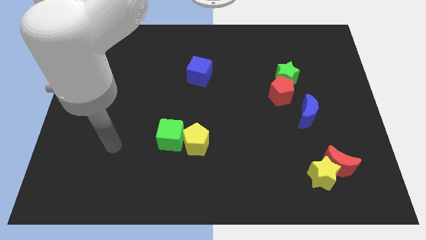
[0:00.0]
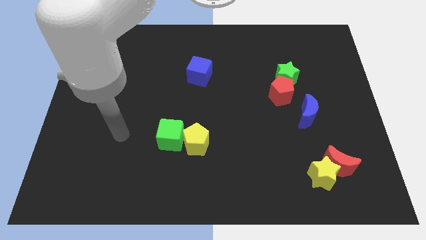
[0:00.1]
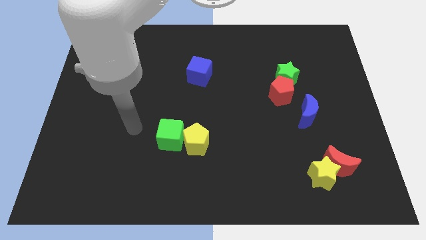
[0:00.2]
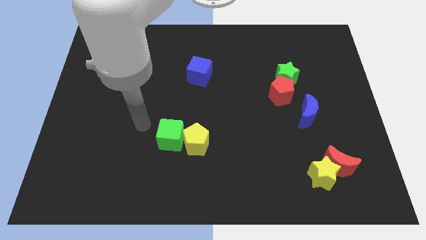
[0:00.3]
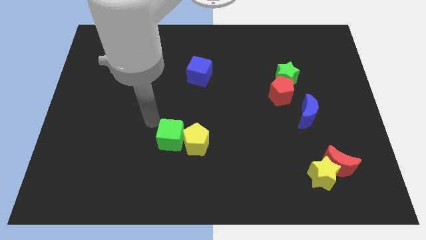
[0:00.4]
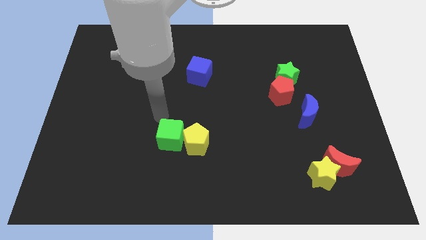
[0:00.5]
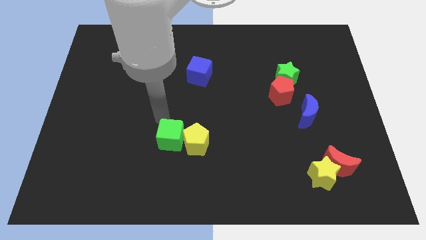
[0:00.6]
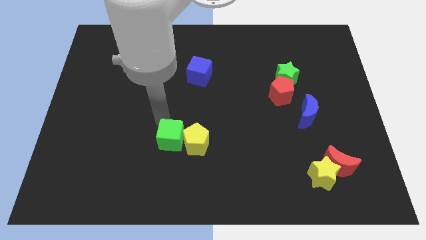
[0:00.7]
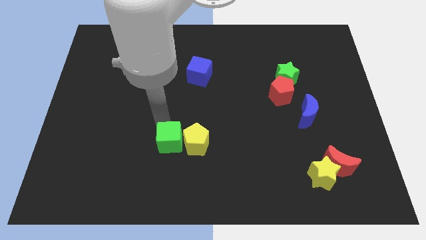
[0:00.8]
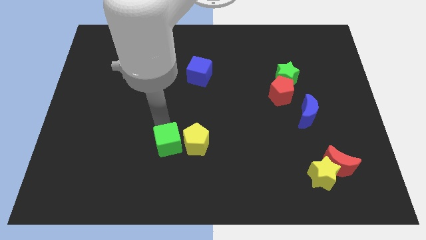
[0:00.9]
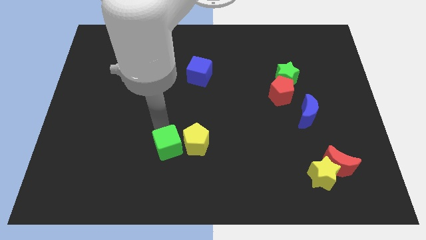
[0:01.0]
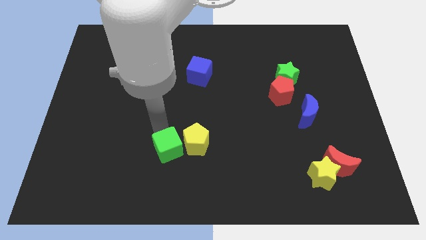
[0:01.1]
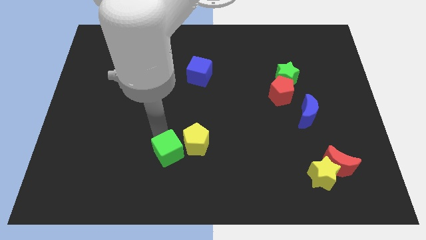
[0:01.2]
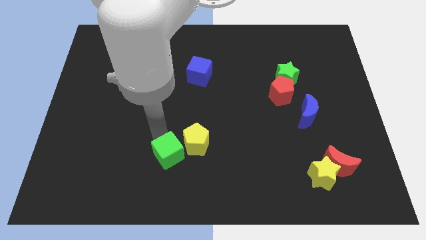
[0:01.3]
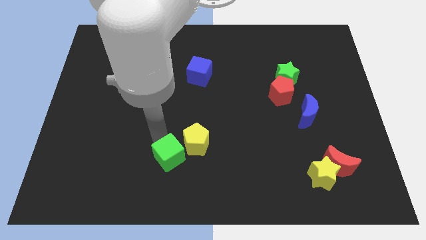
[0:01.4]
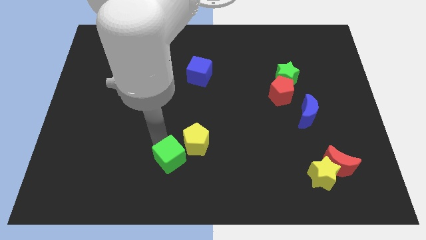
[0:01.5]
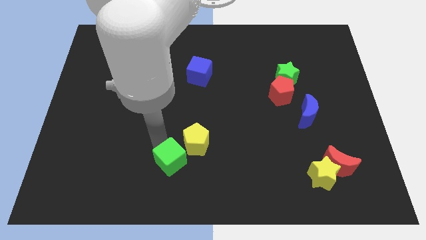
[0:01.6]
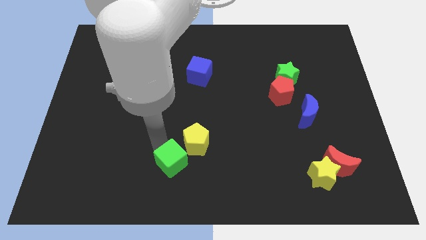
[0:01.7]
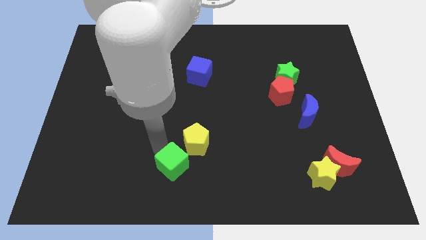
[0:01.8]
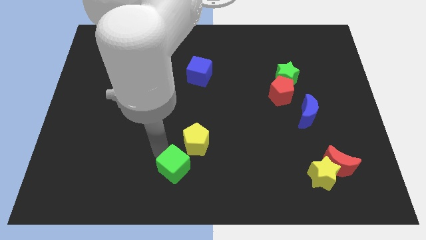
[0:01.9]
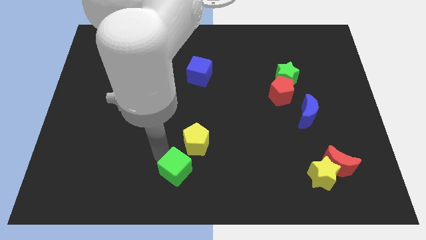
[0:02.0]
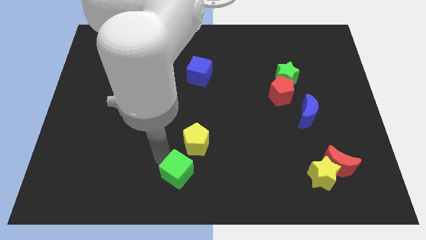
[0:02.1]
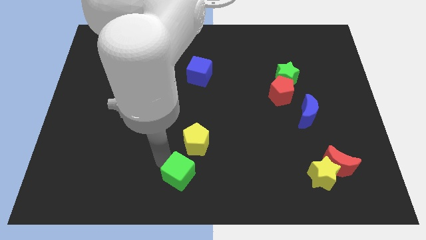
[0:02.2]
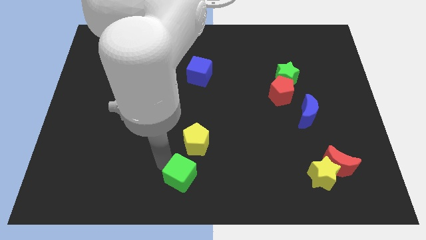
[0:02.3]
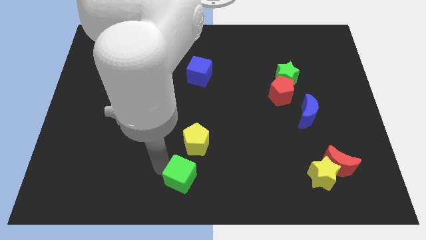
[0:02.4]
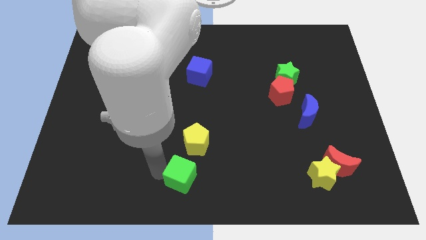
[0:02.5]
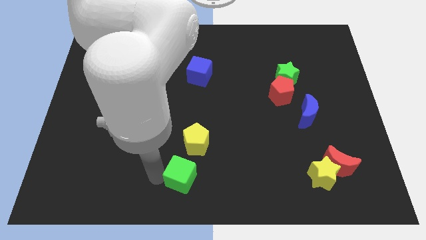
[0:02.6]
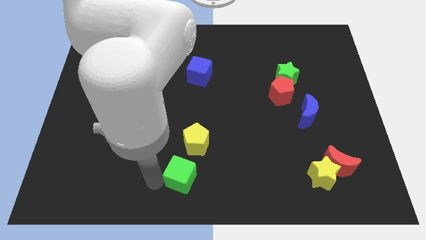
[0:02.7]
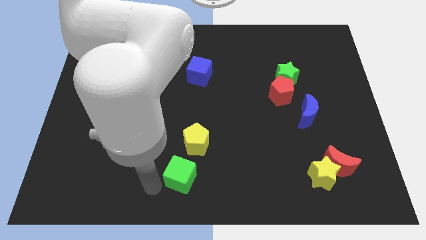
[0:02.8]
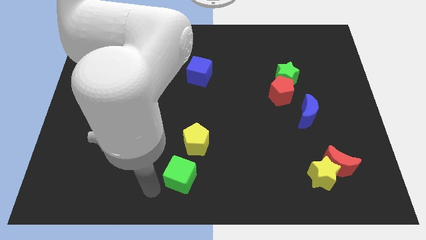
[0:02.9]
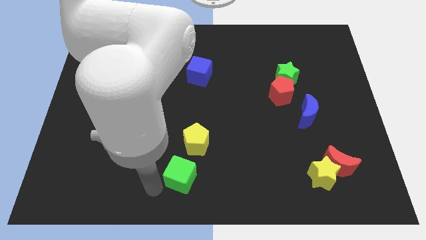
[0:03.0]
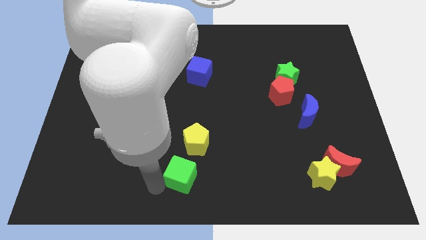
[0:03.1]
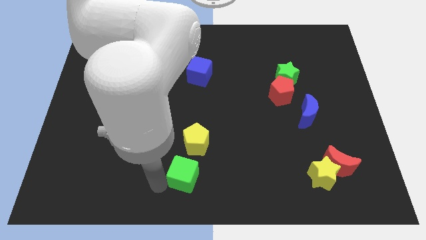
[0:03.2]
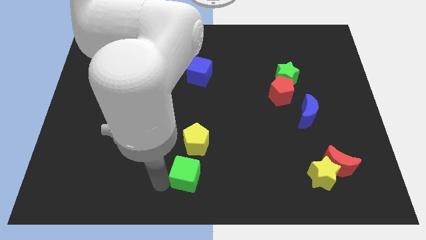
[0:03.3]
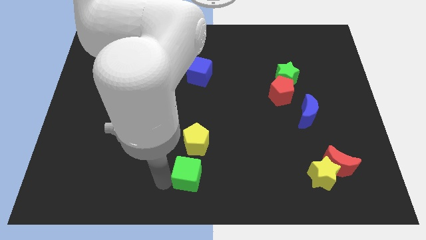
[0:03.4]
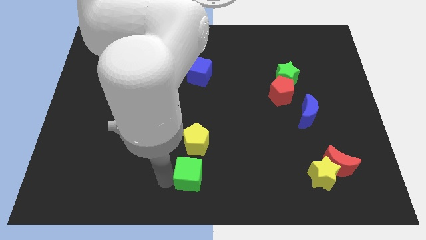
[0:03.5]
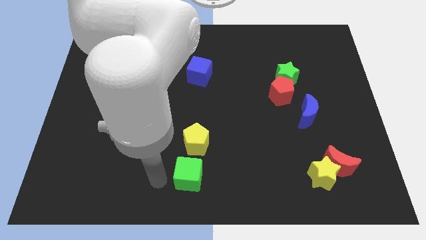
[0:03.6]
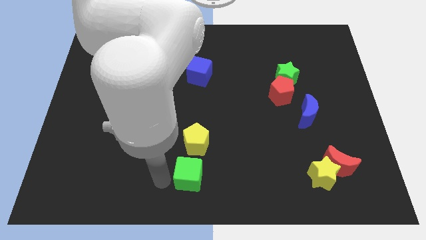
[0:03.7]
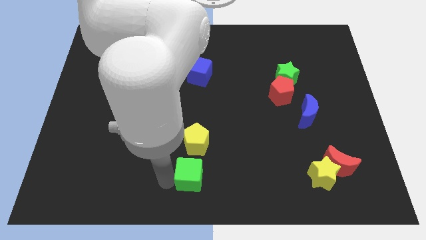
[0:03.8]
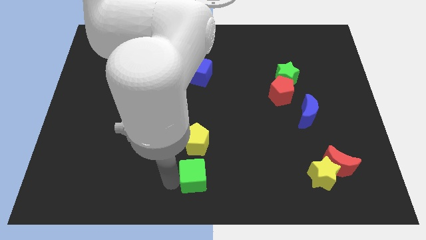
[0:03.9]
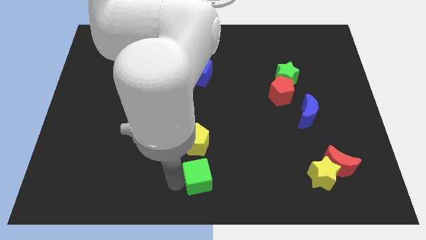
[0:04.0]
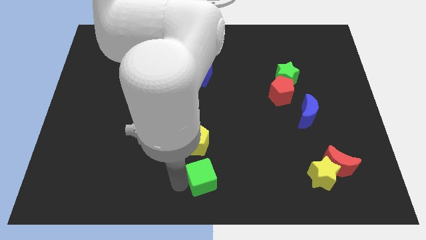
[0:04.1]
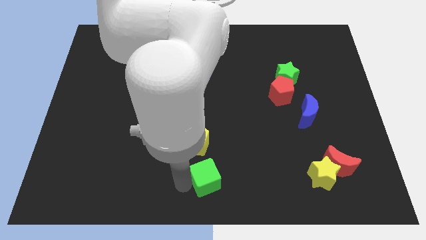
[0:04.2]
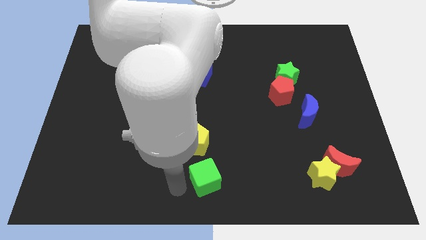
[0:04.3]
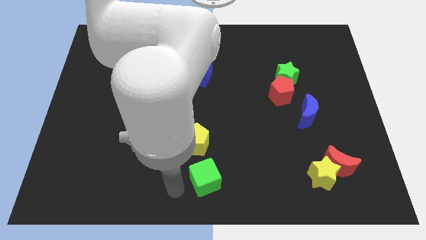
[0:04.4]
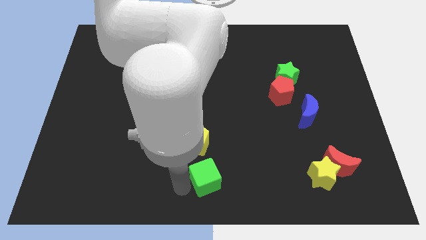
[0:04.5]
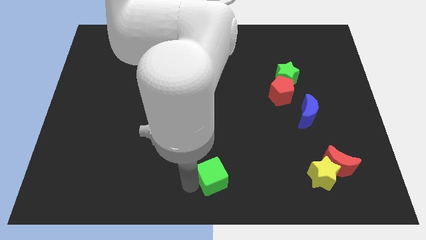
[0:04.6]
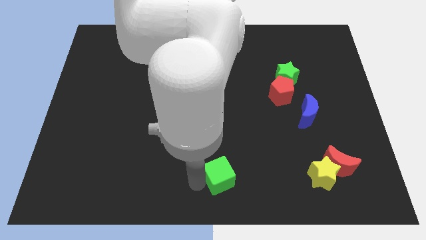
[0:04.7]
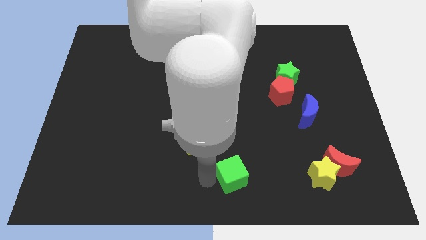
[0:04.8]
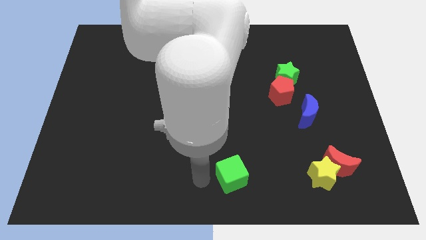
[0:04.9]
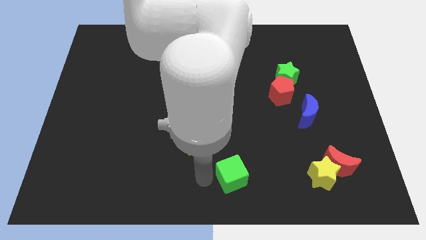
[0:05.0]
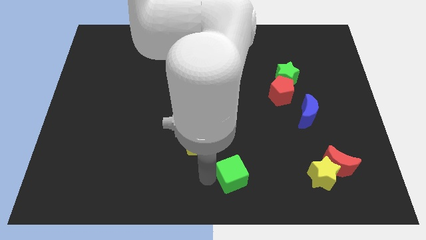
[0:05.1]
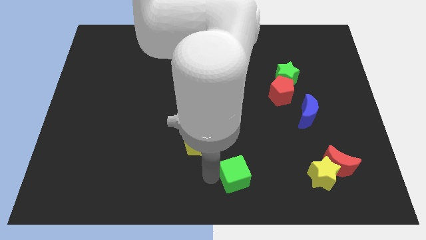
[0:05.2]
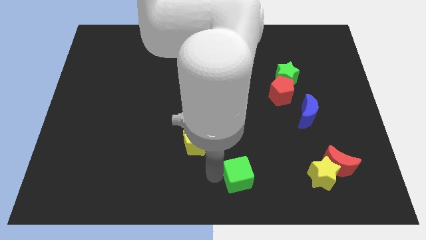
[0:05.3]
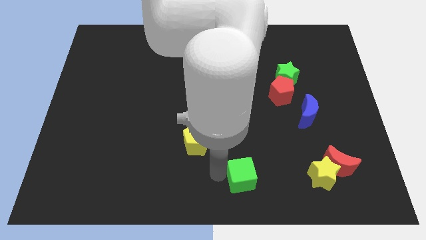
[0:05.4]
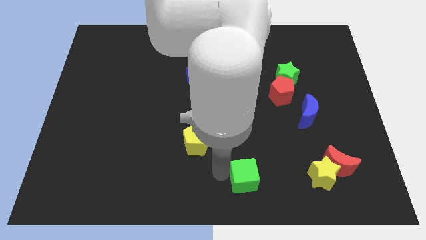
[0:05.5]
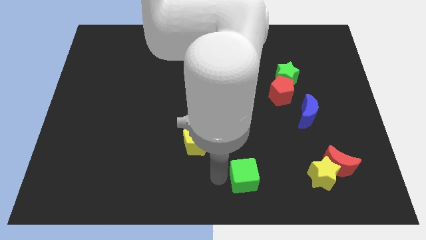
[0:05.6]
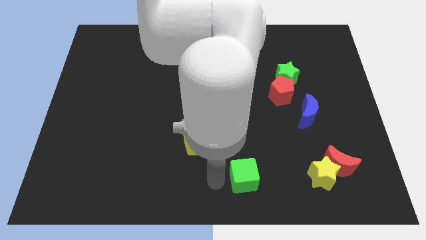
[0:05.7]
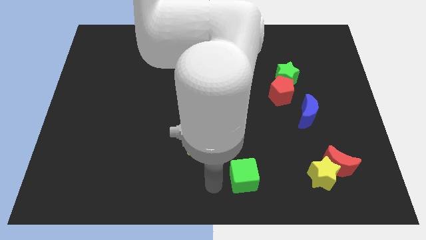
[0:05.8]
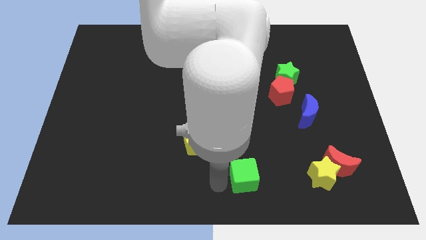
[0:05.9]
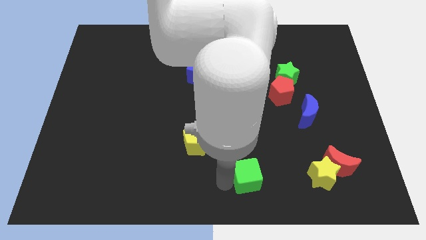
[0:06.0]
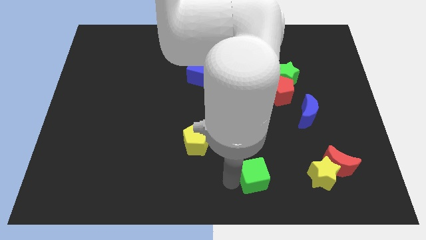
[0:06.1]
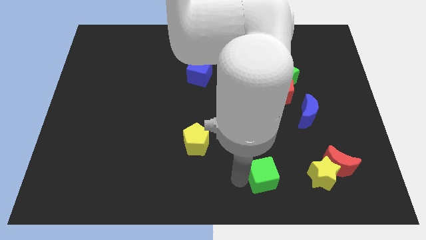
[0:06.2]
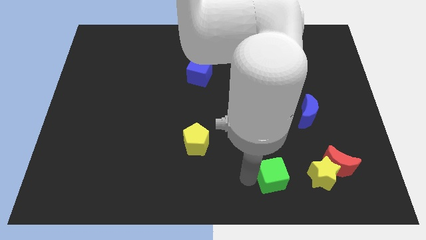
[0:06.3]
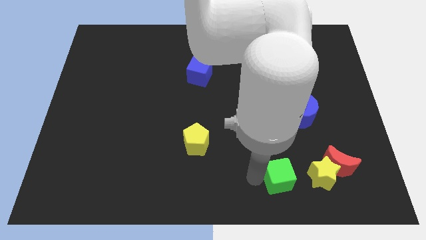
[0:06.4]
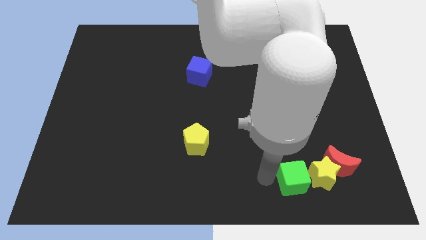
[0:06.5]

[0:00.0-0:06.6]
put the green cube next to the yellow star
